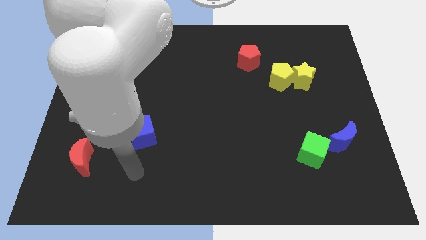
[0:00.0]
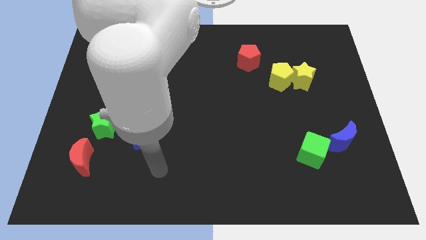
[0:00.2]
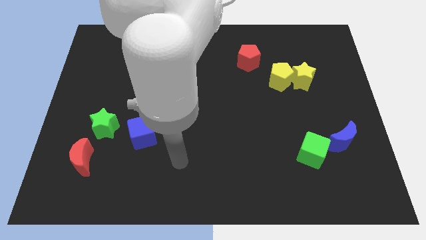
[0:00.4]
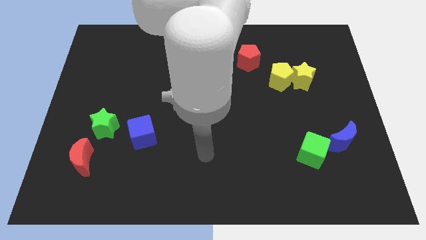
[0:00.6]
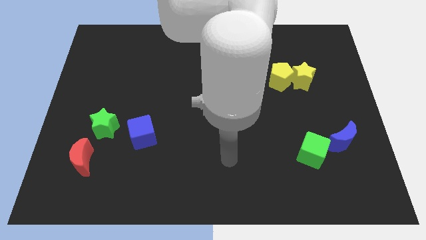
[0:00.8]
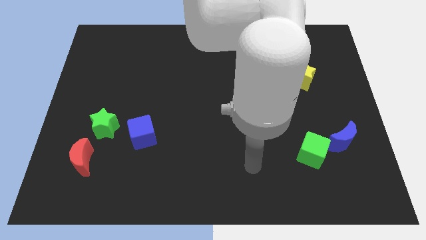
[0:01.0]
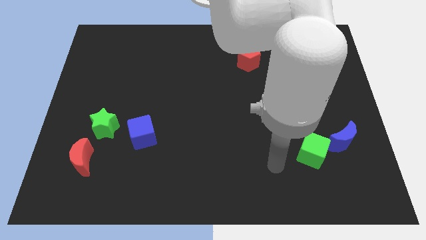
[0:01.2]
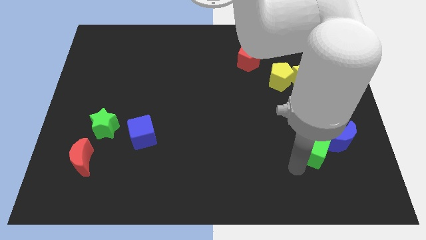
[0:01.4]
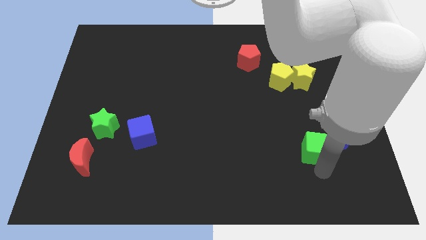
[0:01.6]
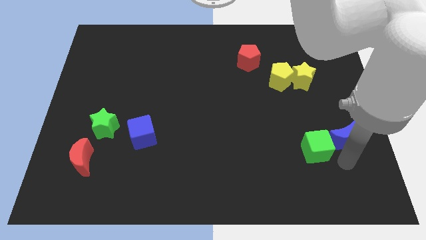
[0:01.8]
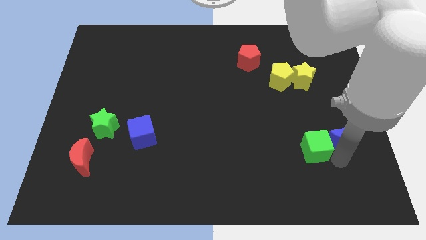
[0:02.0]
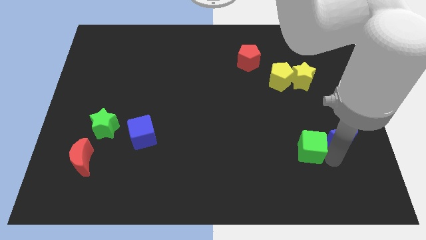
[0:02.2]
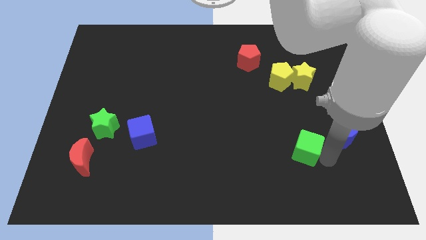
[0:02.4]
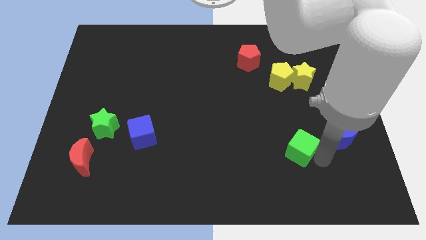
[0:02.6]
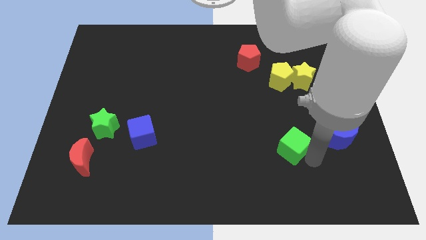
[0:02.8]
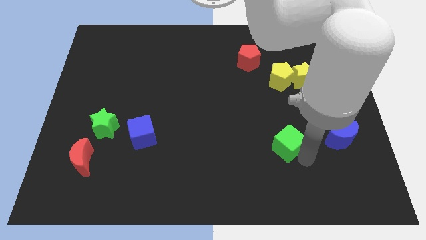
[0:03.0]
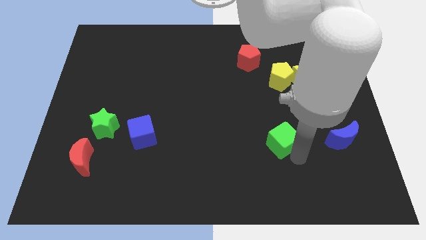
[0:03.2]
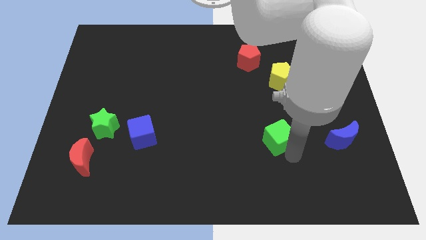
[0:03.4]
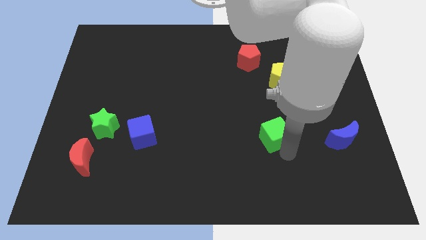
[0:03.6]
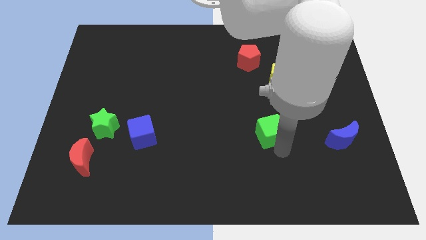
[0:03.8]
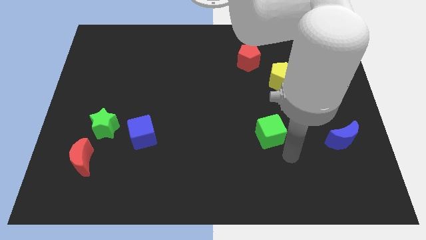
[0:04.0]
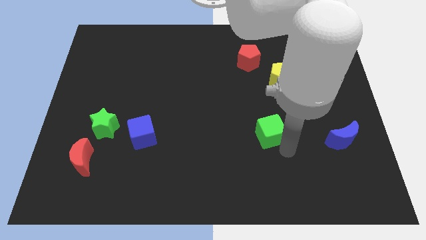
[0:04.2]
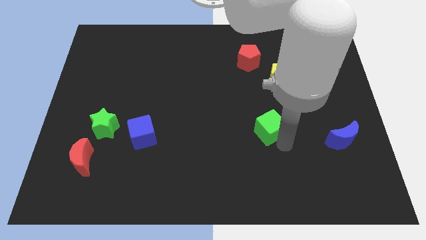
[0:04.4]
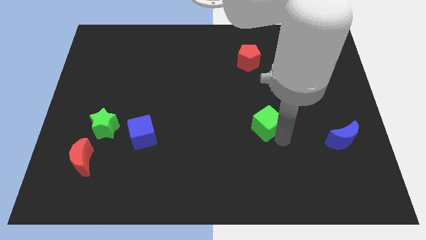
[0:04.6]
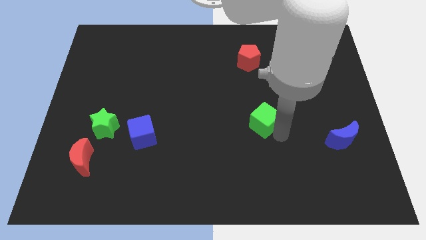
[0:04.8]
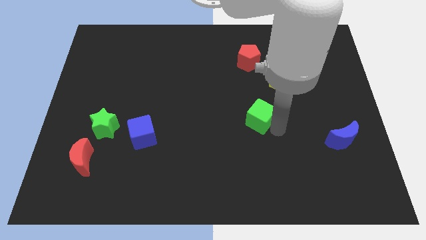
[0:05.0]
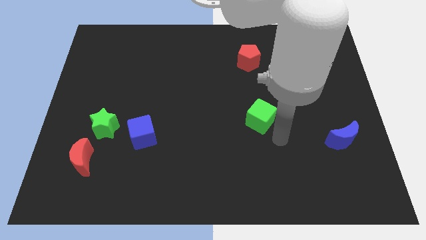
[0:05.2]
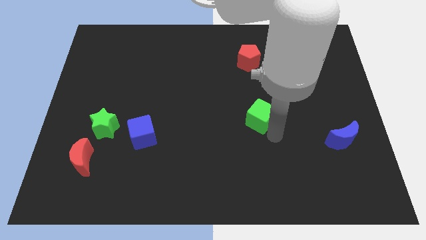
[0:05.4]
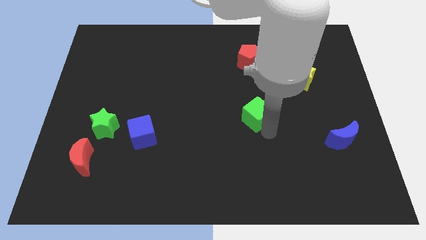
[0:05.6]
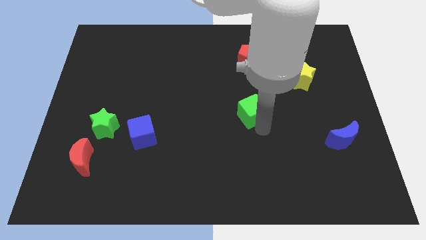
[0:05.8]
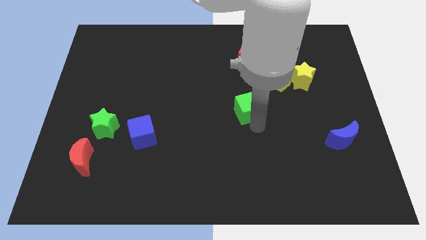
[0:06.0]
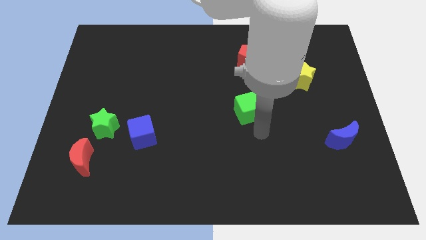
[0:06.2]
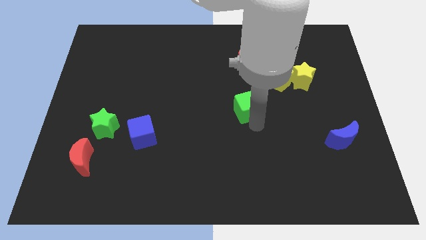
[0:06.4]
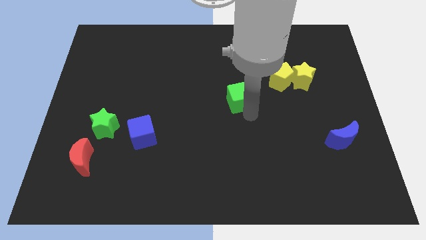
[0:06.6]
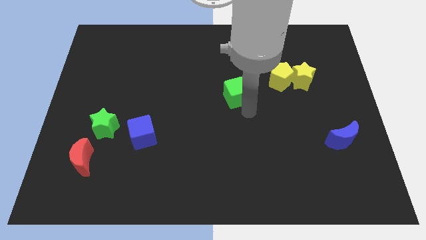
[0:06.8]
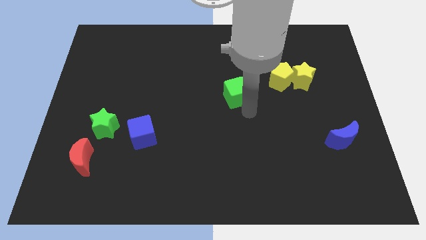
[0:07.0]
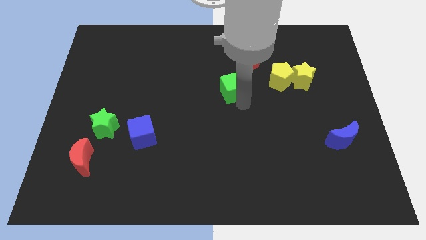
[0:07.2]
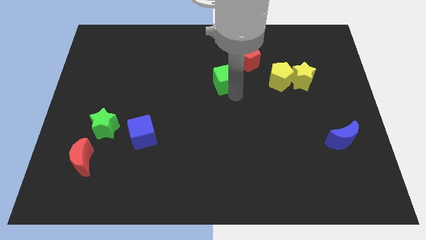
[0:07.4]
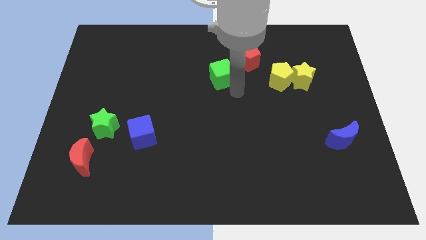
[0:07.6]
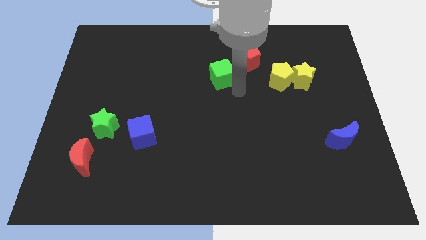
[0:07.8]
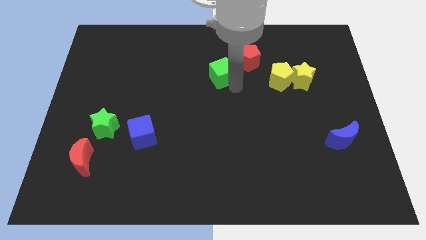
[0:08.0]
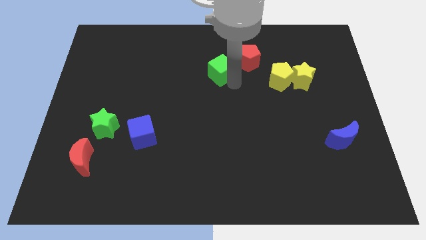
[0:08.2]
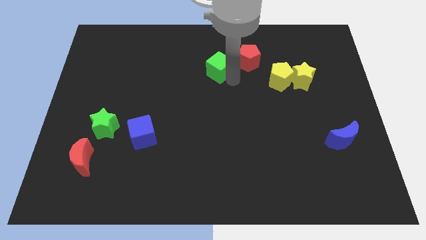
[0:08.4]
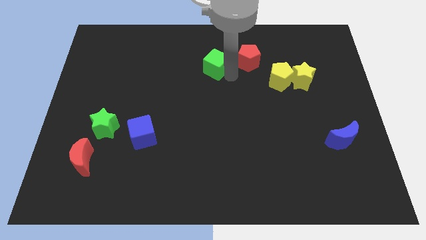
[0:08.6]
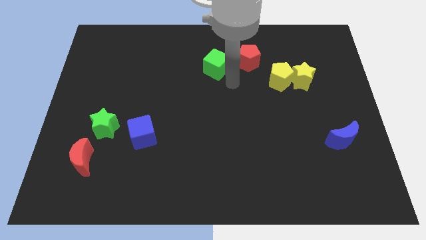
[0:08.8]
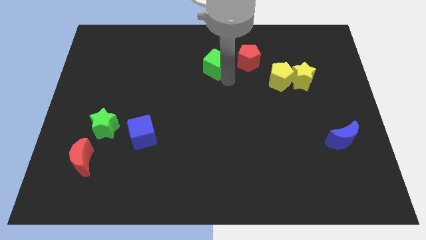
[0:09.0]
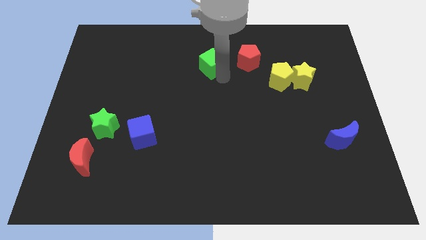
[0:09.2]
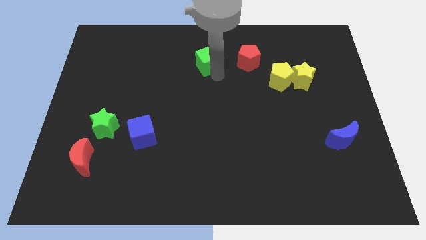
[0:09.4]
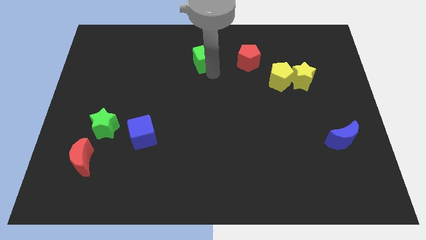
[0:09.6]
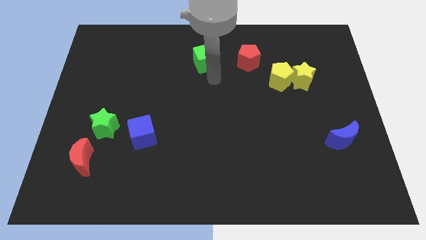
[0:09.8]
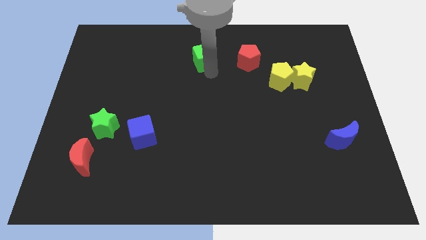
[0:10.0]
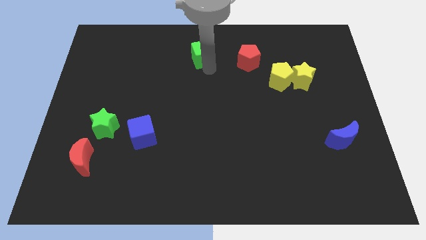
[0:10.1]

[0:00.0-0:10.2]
move the green cube to the top
